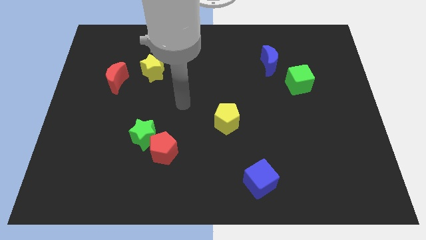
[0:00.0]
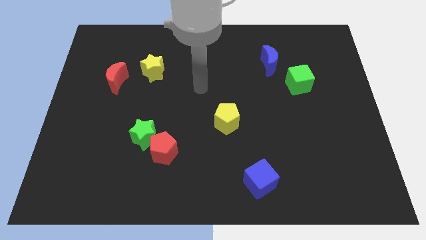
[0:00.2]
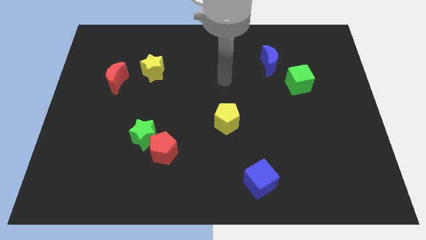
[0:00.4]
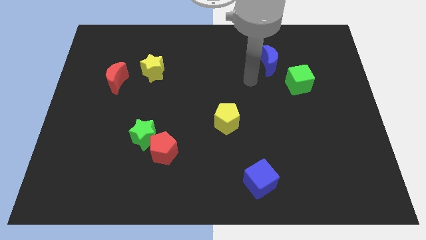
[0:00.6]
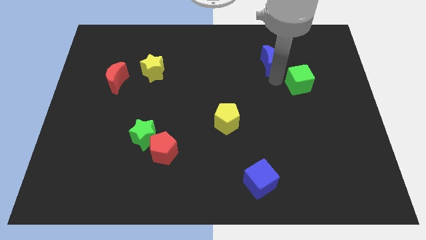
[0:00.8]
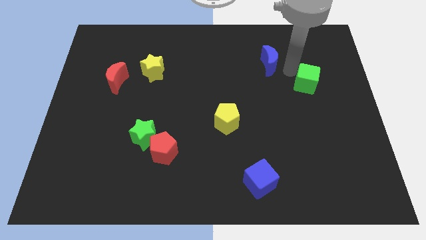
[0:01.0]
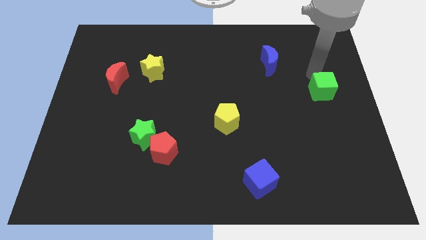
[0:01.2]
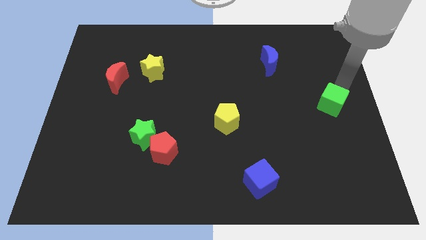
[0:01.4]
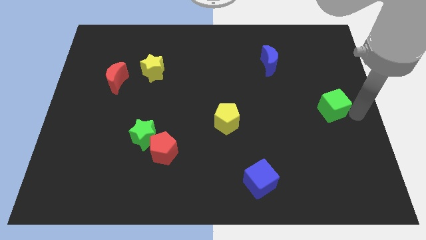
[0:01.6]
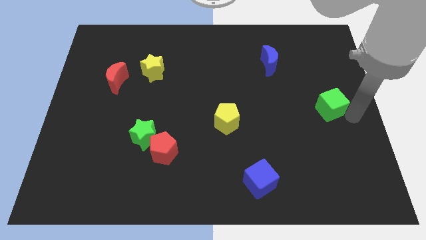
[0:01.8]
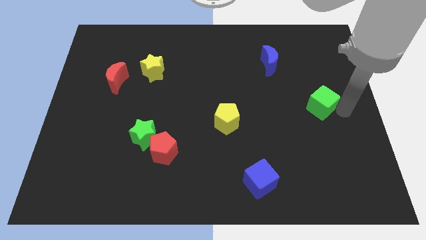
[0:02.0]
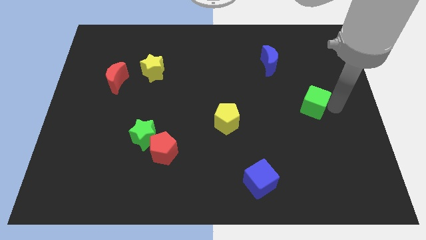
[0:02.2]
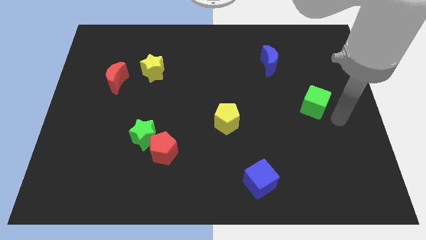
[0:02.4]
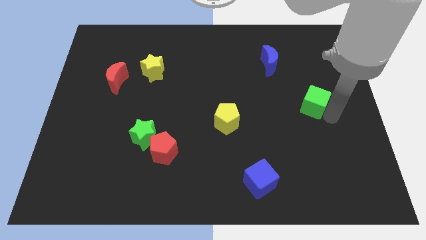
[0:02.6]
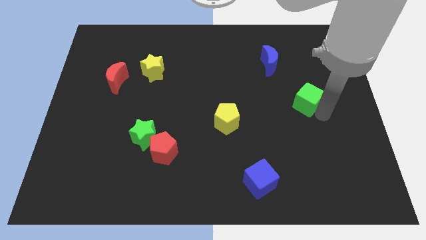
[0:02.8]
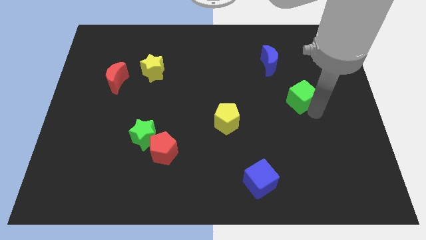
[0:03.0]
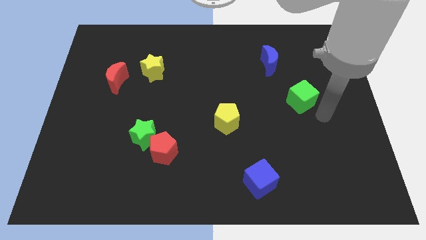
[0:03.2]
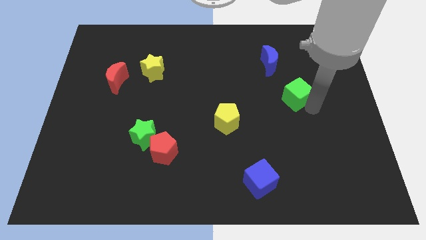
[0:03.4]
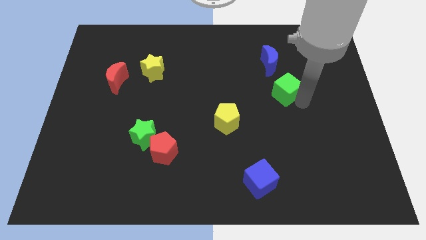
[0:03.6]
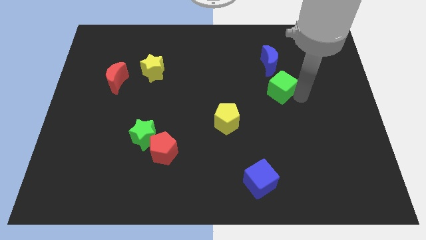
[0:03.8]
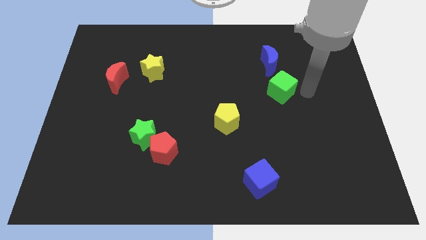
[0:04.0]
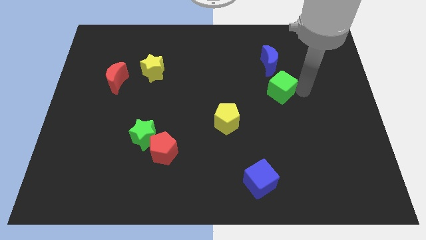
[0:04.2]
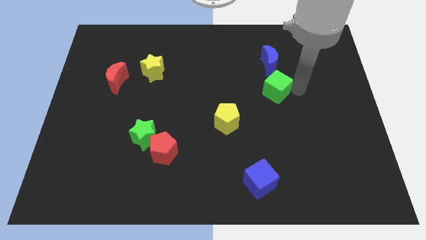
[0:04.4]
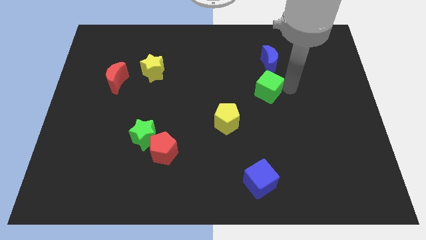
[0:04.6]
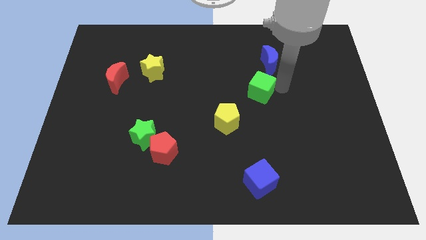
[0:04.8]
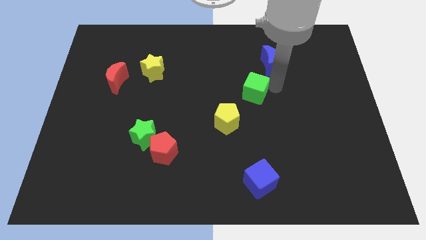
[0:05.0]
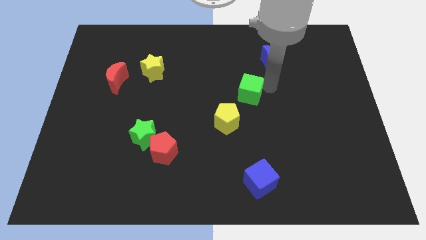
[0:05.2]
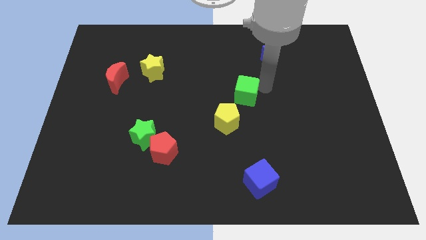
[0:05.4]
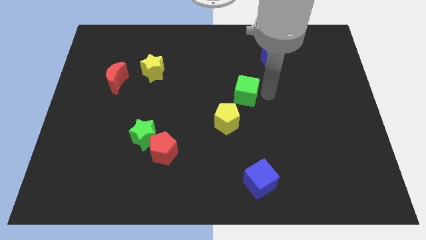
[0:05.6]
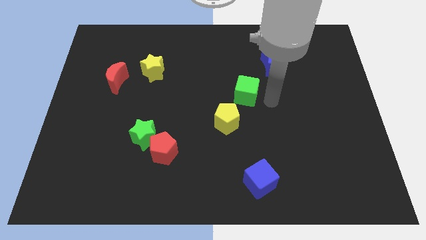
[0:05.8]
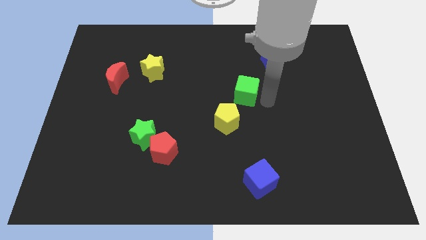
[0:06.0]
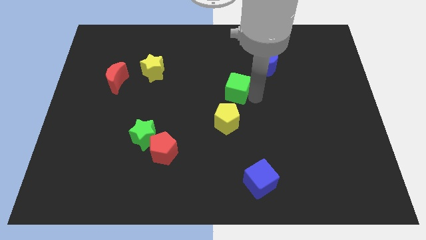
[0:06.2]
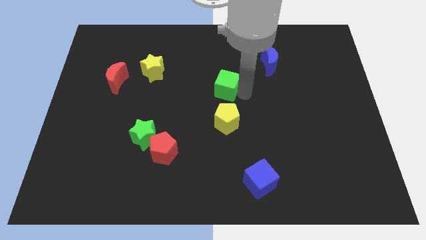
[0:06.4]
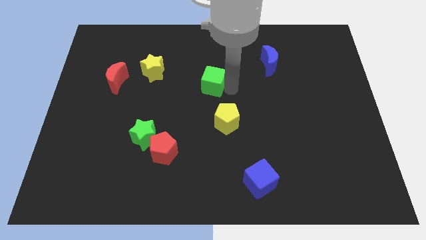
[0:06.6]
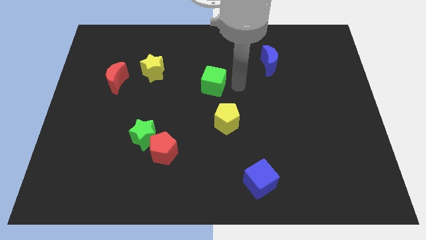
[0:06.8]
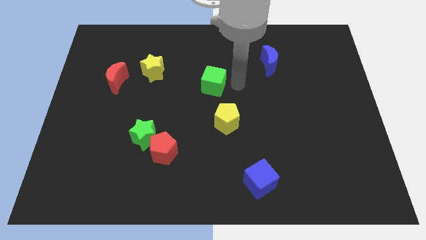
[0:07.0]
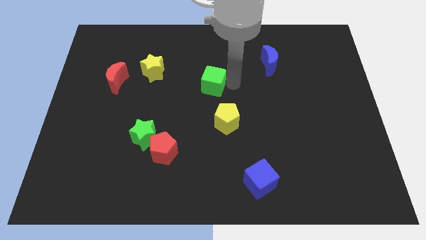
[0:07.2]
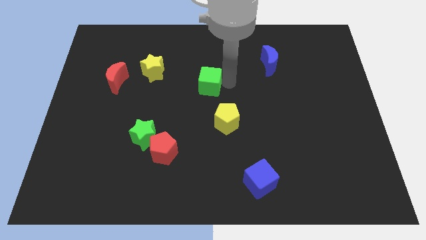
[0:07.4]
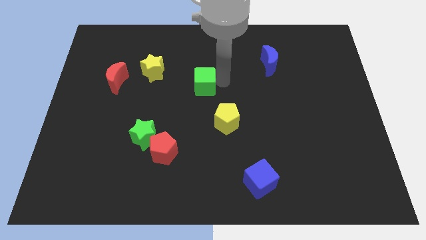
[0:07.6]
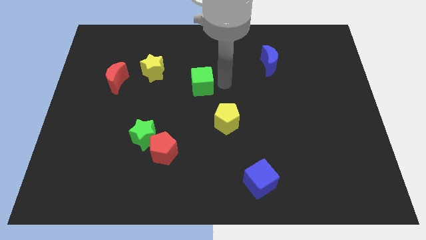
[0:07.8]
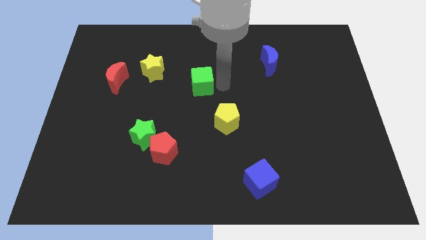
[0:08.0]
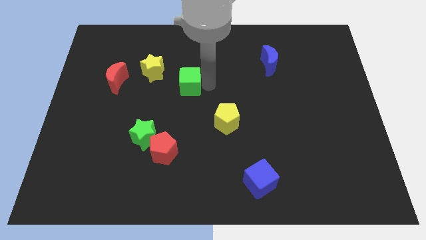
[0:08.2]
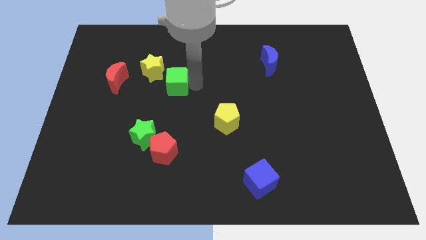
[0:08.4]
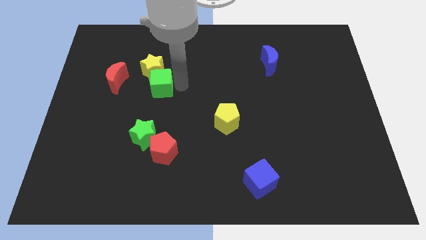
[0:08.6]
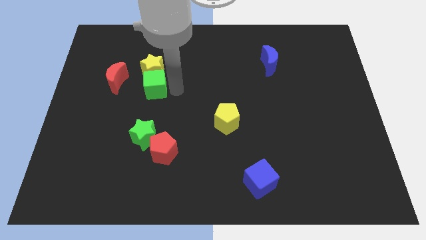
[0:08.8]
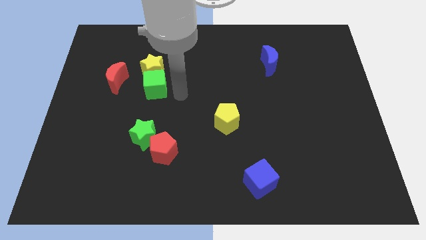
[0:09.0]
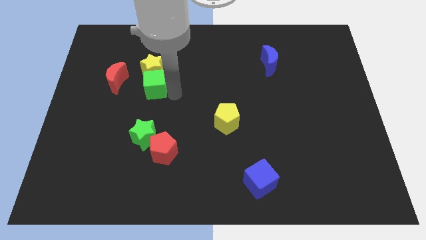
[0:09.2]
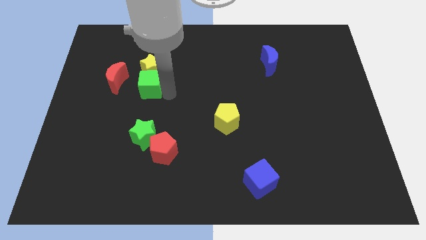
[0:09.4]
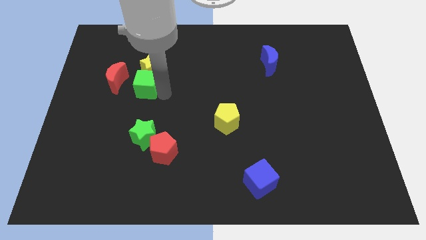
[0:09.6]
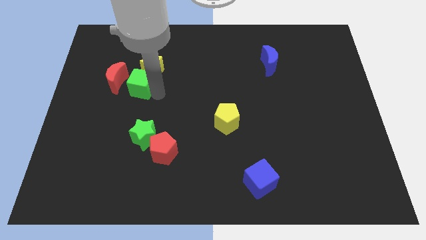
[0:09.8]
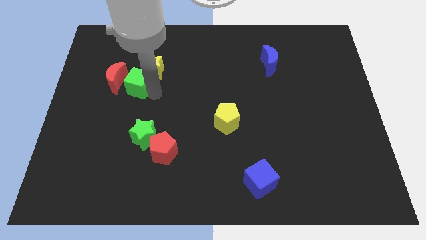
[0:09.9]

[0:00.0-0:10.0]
push the green cube towards the red moon

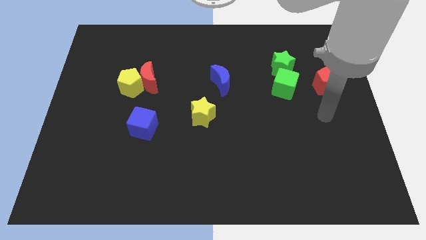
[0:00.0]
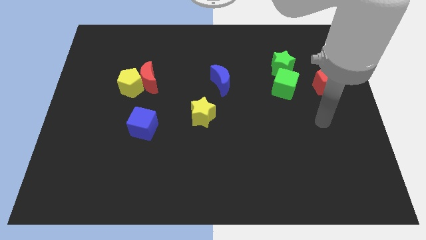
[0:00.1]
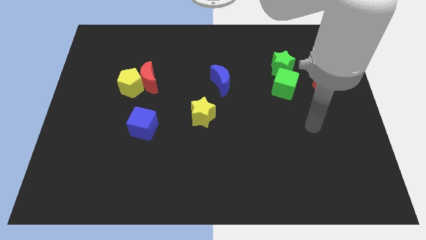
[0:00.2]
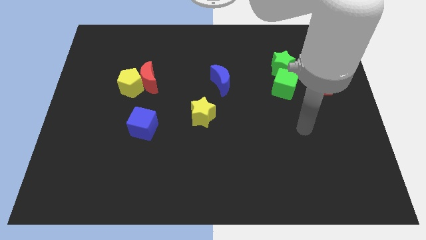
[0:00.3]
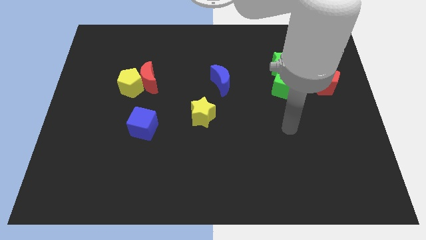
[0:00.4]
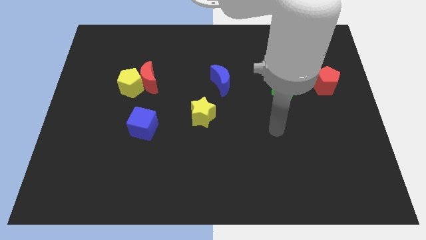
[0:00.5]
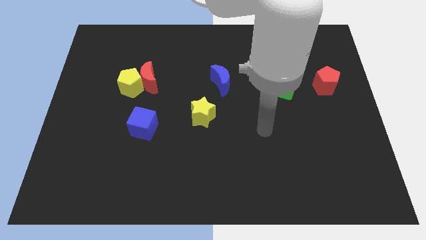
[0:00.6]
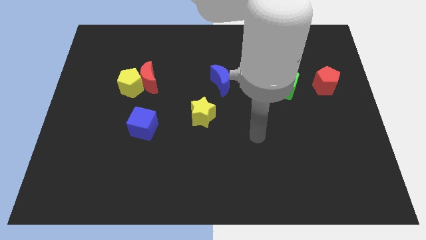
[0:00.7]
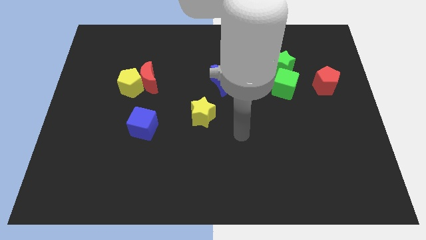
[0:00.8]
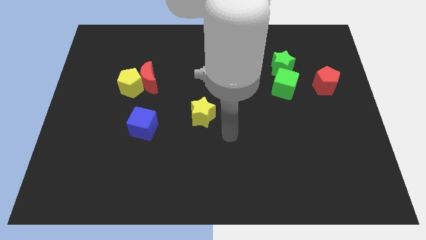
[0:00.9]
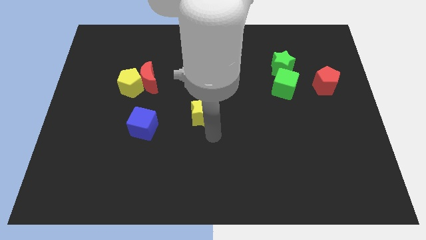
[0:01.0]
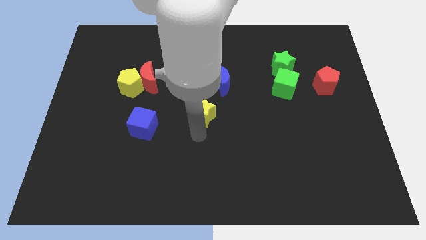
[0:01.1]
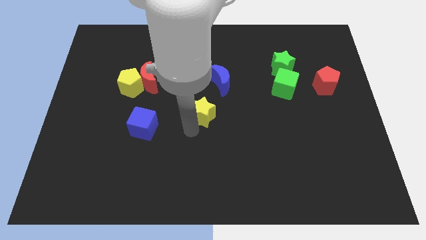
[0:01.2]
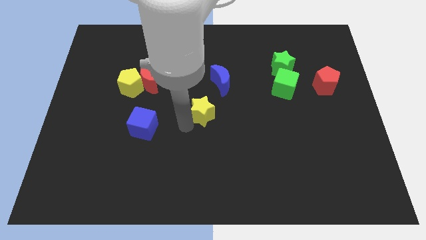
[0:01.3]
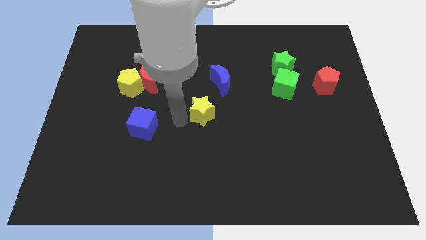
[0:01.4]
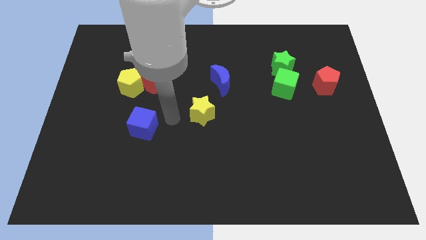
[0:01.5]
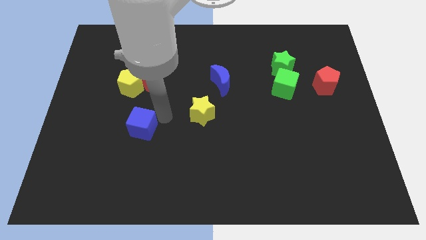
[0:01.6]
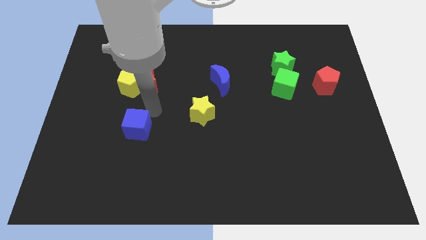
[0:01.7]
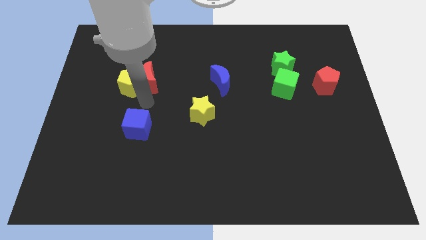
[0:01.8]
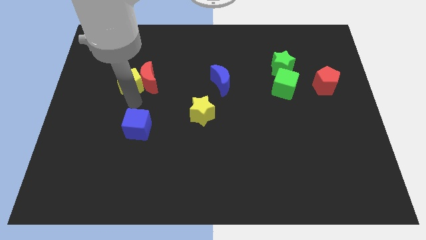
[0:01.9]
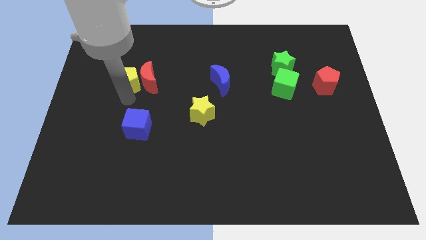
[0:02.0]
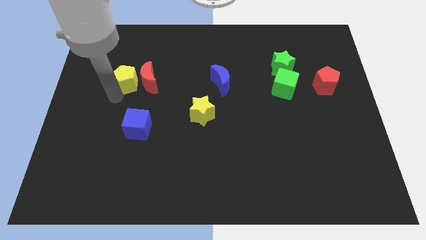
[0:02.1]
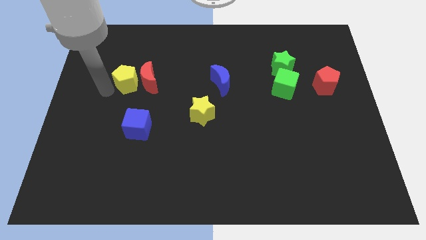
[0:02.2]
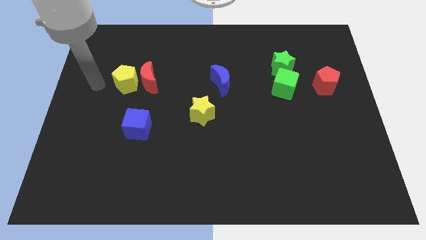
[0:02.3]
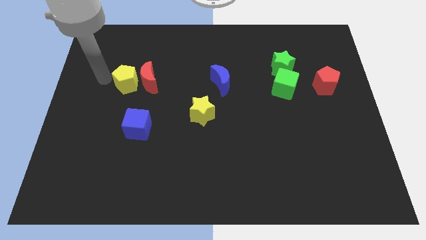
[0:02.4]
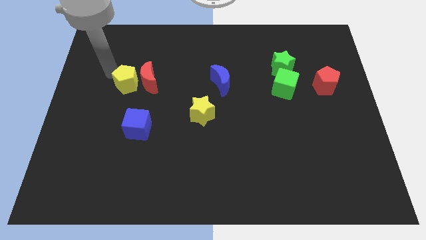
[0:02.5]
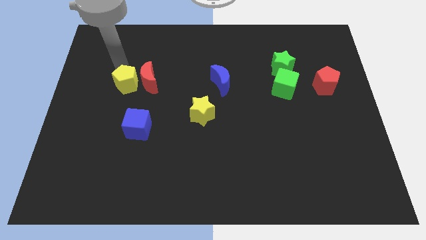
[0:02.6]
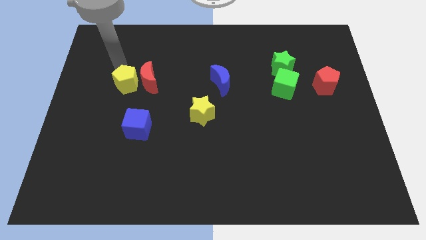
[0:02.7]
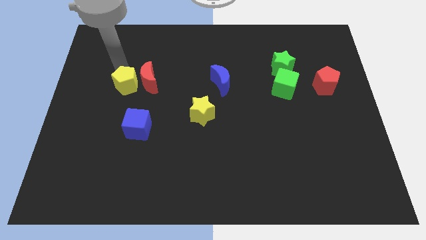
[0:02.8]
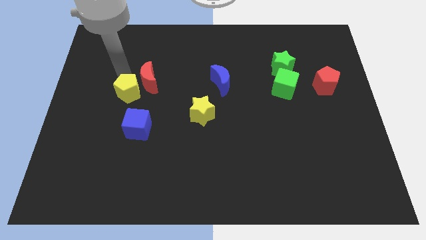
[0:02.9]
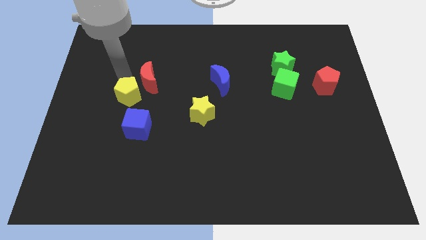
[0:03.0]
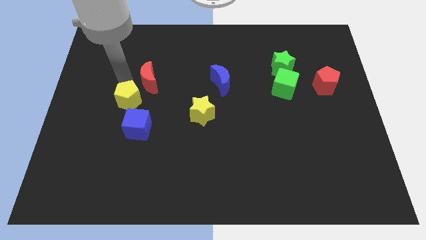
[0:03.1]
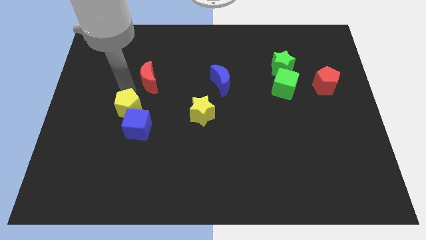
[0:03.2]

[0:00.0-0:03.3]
slide the yellow pentagon close to the blue cube
